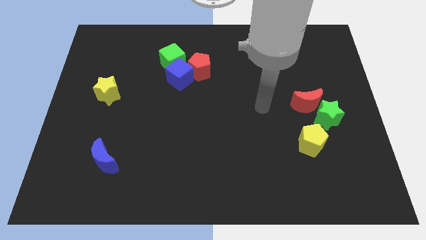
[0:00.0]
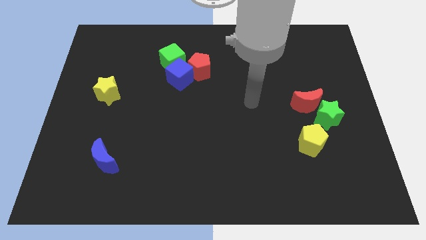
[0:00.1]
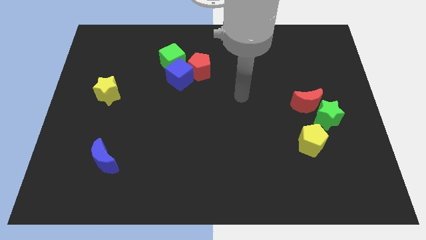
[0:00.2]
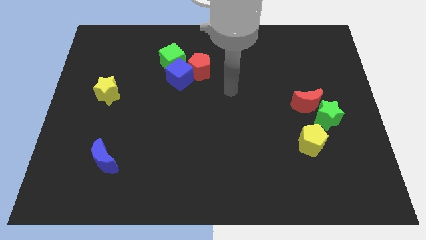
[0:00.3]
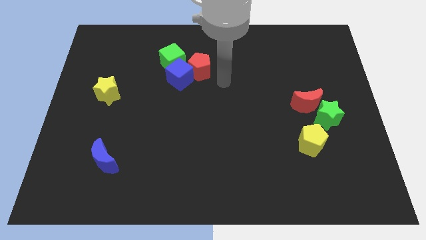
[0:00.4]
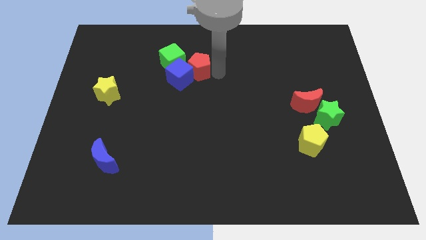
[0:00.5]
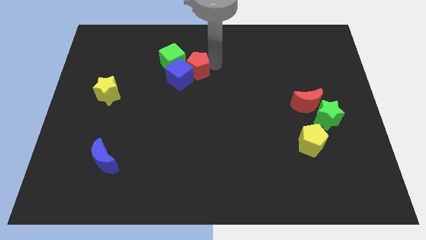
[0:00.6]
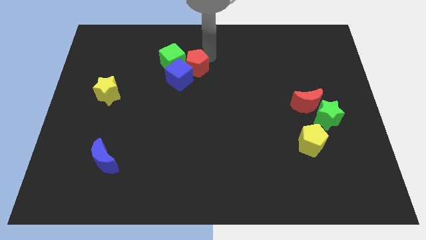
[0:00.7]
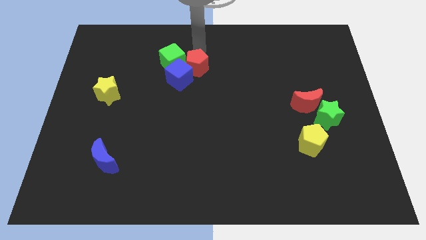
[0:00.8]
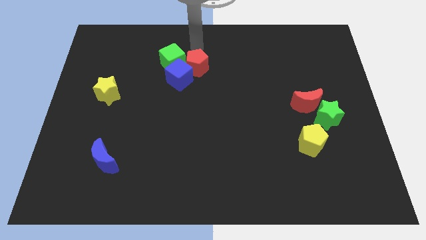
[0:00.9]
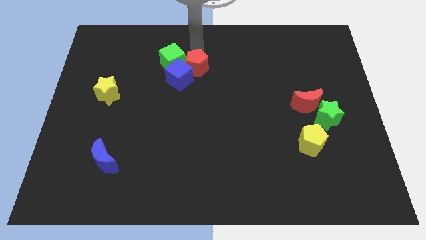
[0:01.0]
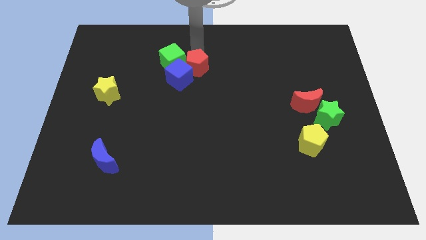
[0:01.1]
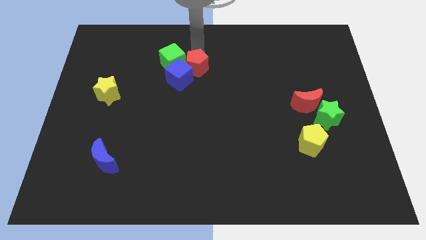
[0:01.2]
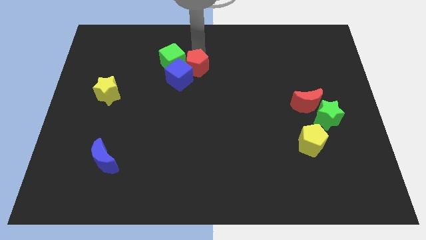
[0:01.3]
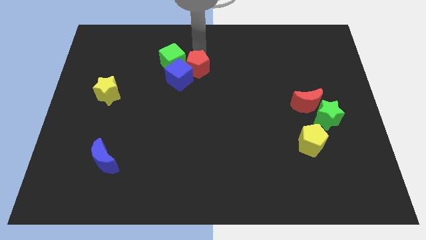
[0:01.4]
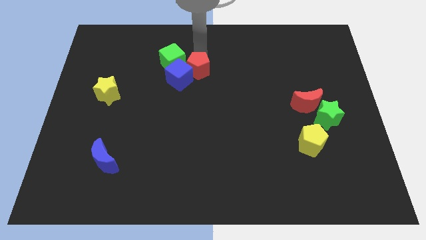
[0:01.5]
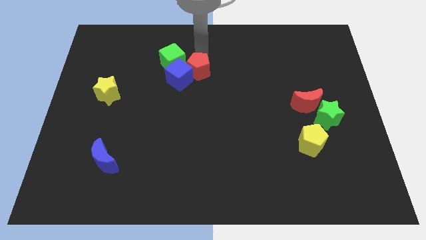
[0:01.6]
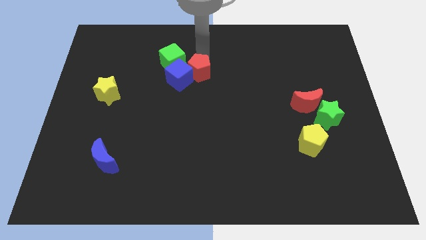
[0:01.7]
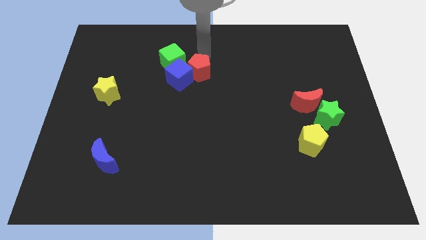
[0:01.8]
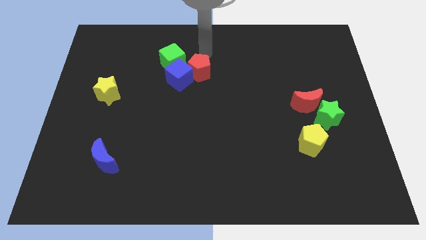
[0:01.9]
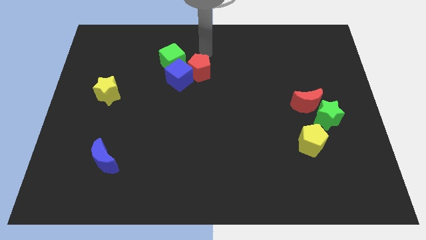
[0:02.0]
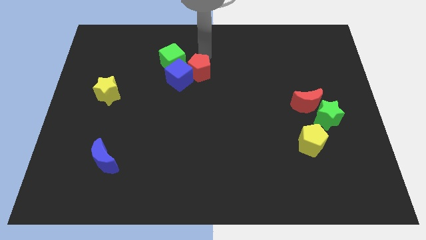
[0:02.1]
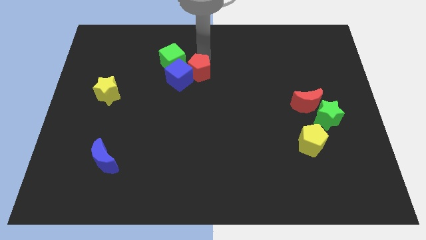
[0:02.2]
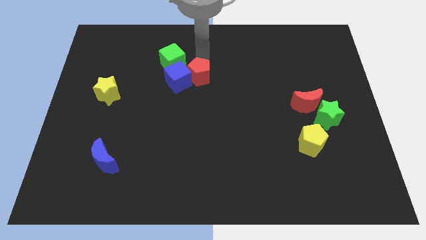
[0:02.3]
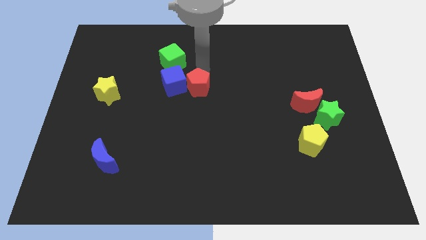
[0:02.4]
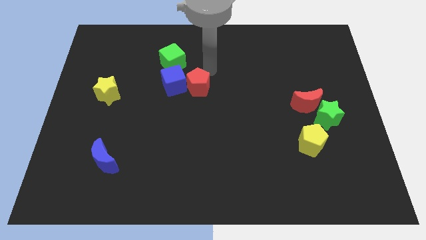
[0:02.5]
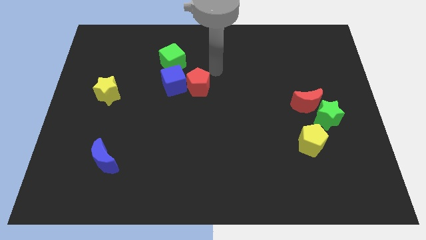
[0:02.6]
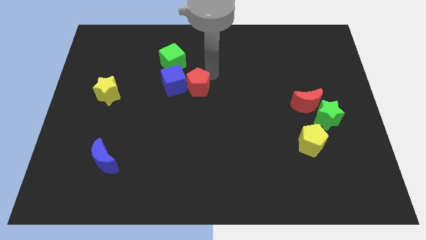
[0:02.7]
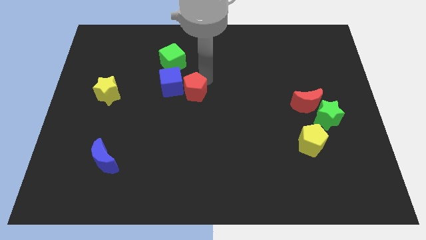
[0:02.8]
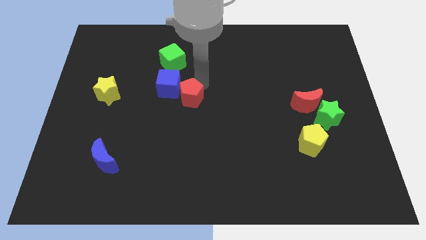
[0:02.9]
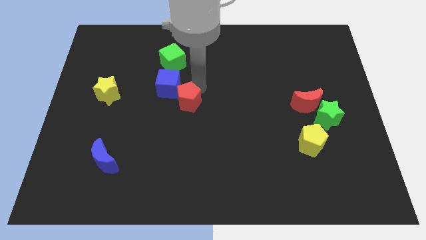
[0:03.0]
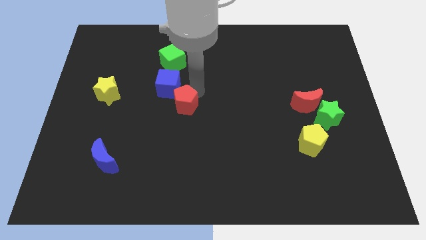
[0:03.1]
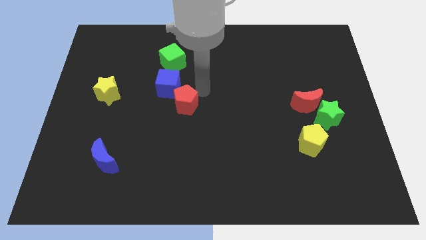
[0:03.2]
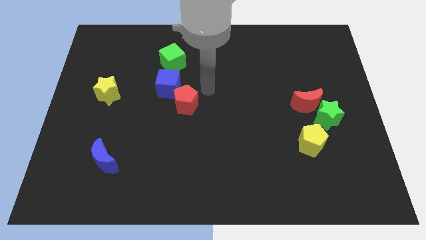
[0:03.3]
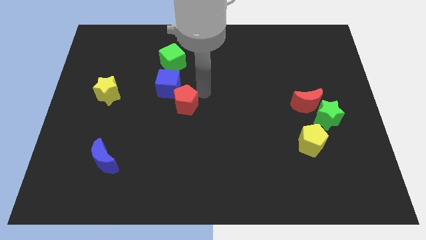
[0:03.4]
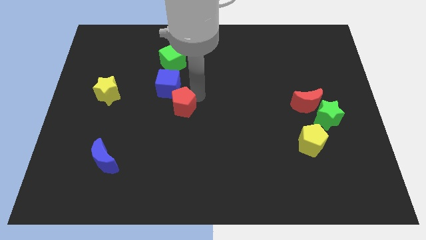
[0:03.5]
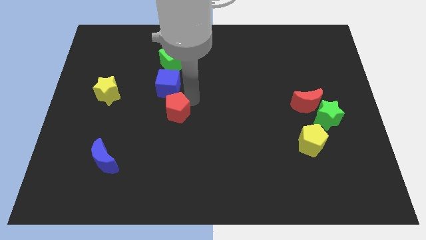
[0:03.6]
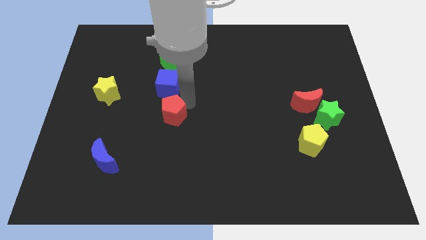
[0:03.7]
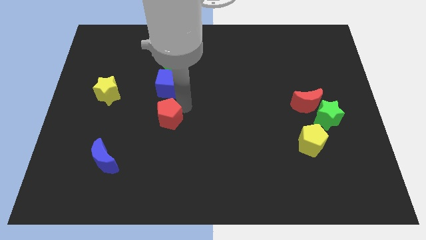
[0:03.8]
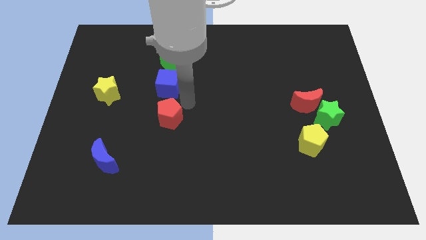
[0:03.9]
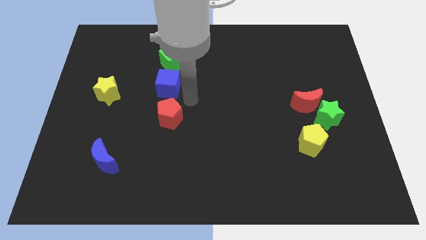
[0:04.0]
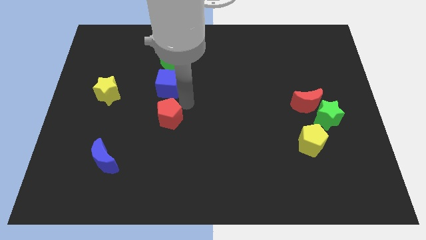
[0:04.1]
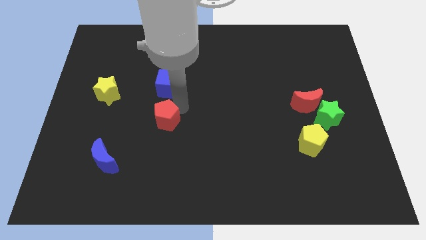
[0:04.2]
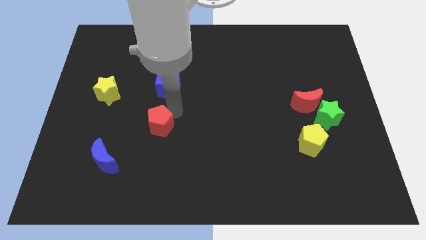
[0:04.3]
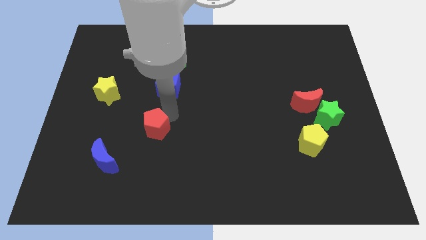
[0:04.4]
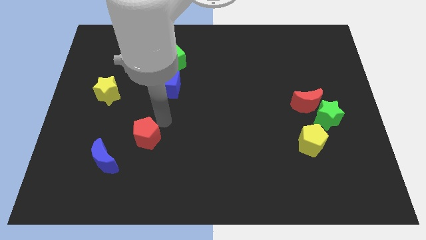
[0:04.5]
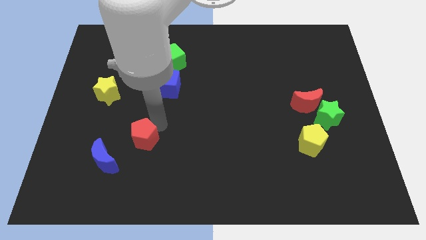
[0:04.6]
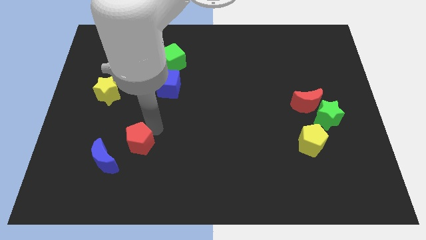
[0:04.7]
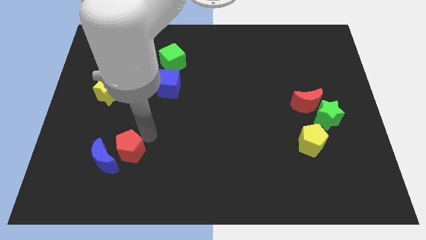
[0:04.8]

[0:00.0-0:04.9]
put the red pentagon next to the blue moon

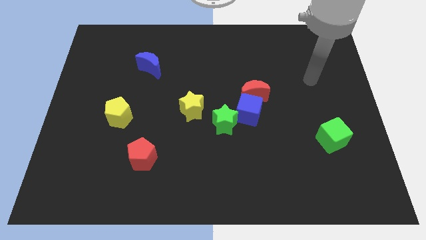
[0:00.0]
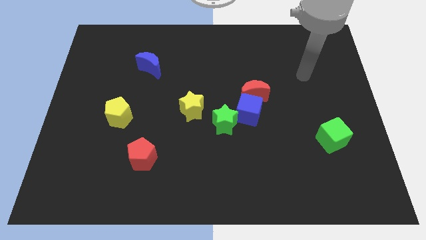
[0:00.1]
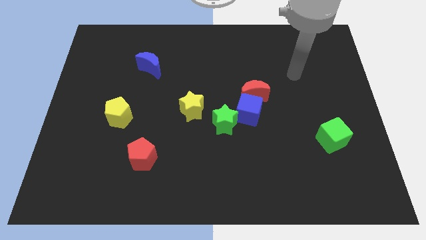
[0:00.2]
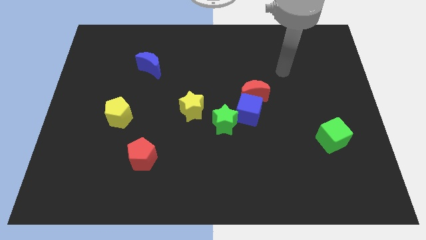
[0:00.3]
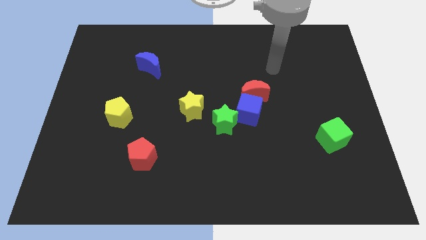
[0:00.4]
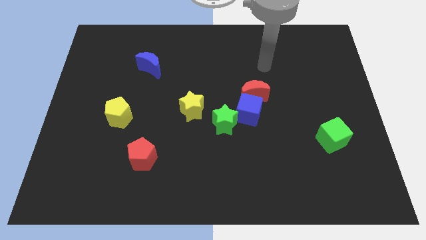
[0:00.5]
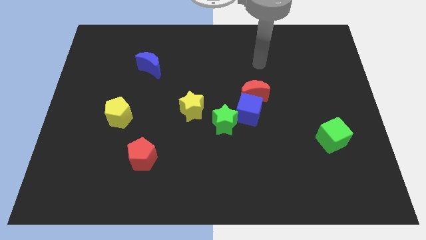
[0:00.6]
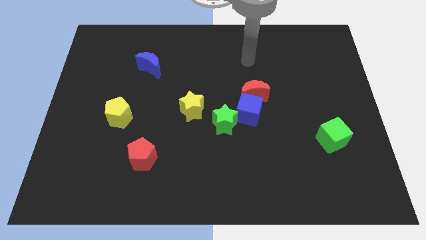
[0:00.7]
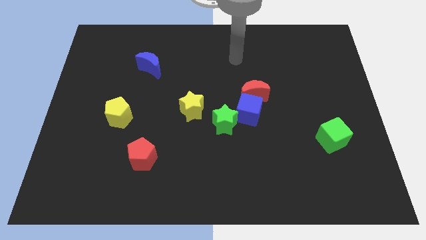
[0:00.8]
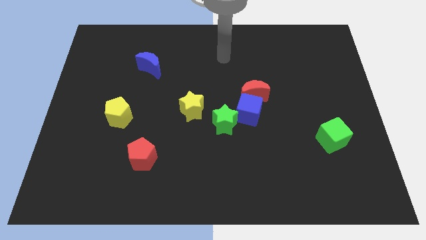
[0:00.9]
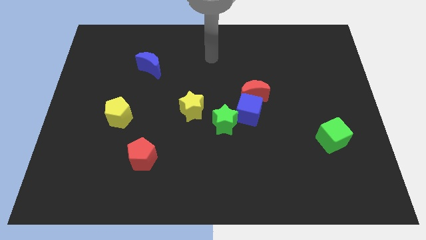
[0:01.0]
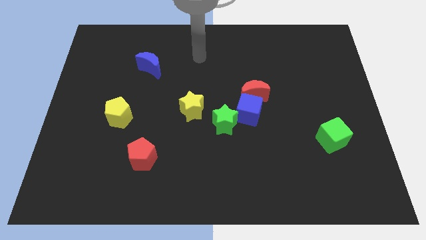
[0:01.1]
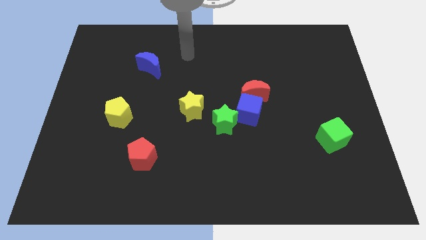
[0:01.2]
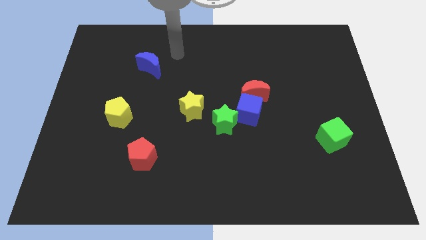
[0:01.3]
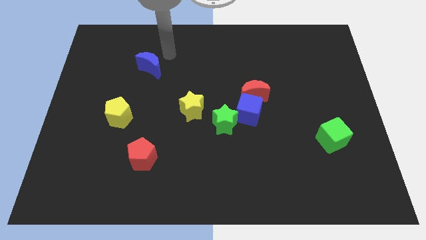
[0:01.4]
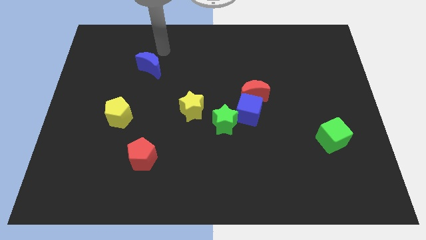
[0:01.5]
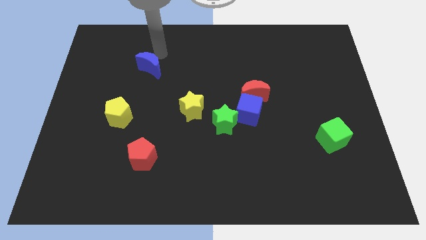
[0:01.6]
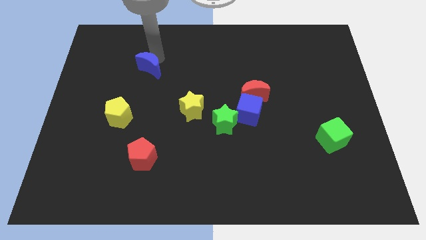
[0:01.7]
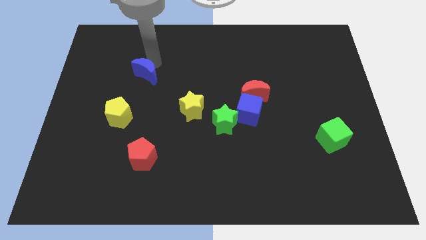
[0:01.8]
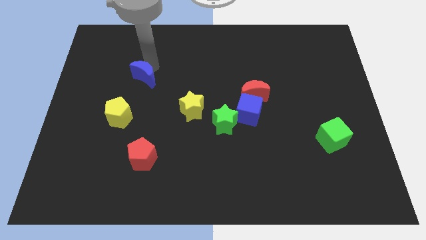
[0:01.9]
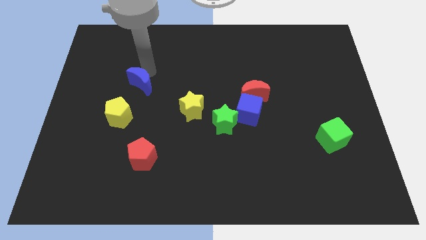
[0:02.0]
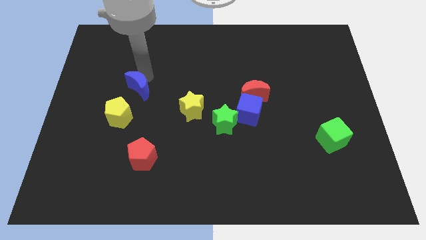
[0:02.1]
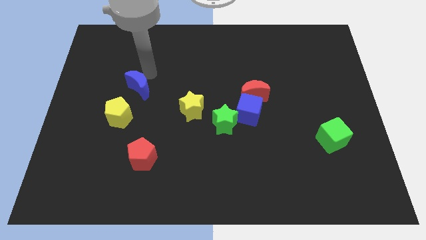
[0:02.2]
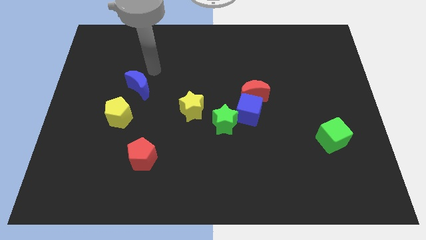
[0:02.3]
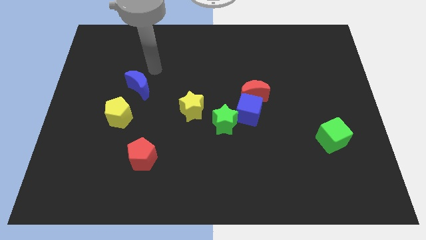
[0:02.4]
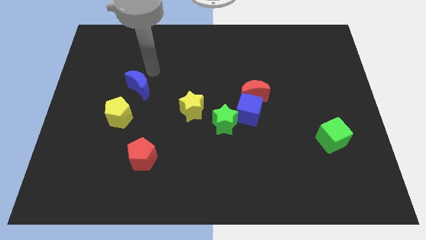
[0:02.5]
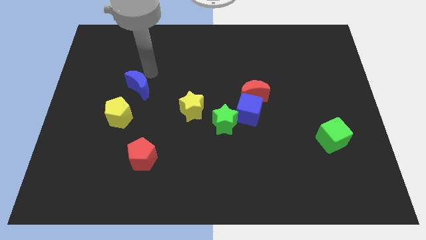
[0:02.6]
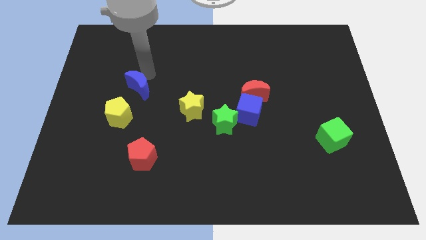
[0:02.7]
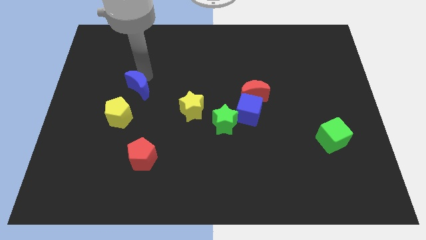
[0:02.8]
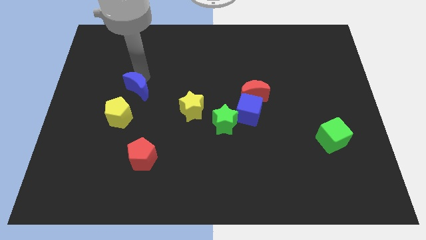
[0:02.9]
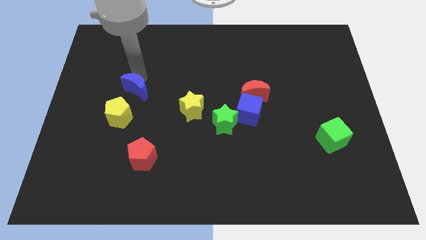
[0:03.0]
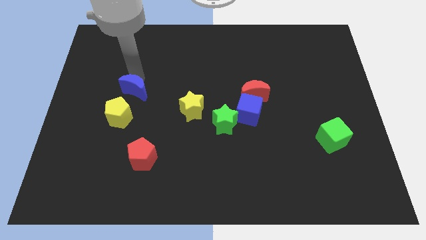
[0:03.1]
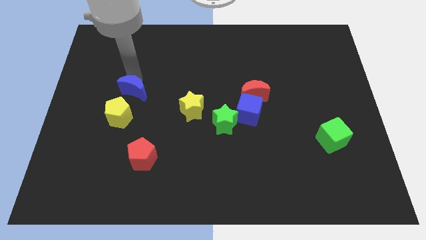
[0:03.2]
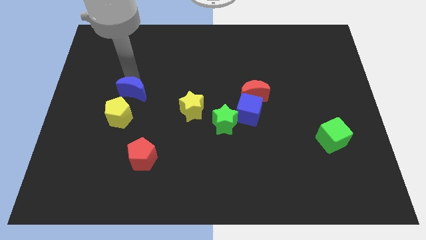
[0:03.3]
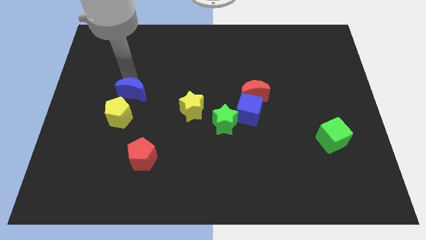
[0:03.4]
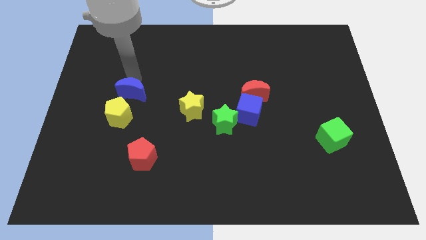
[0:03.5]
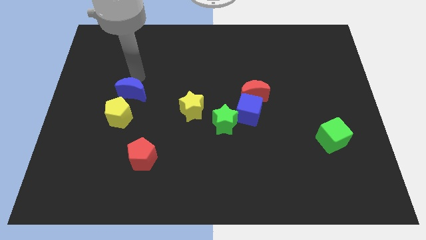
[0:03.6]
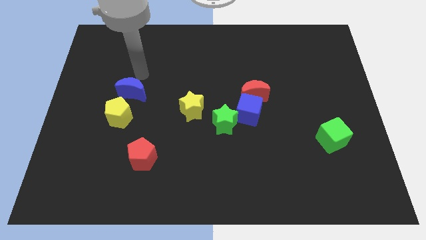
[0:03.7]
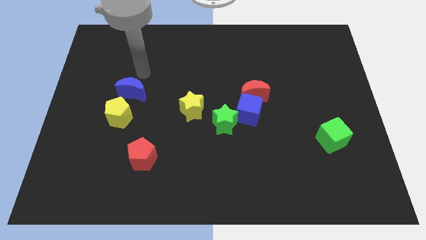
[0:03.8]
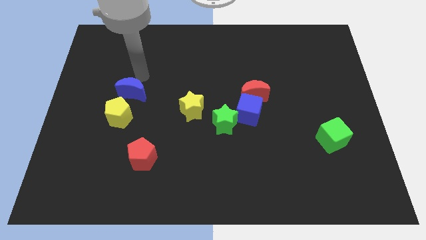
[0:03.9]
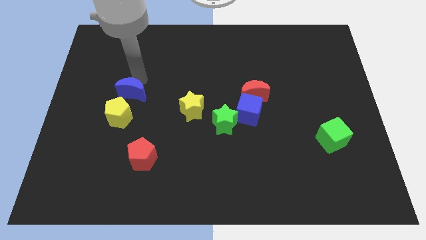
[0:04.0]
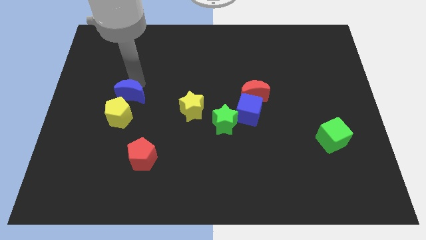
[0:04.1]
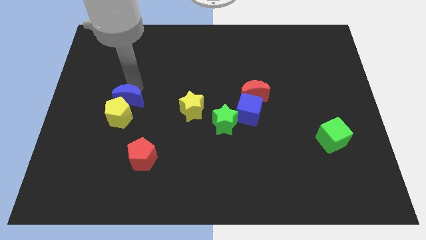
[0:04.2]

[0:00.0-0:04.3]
slide the blue moon next to the yellow pentagon
